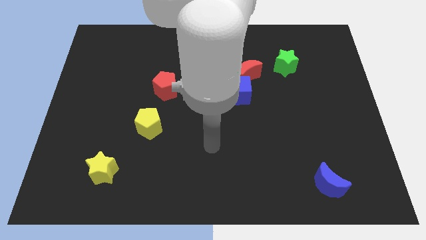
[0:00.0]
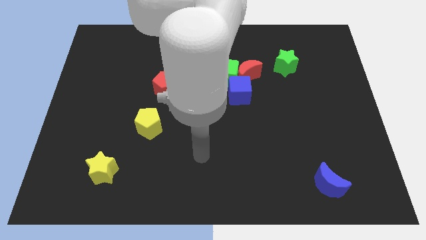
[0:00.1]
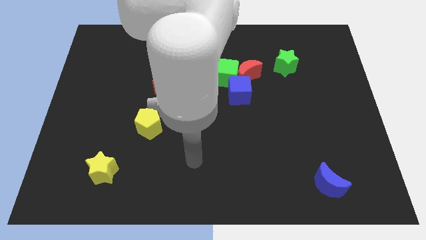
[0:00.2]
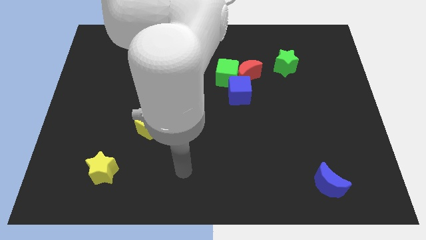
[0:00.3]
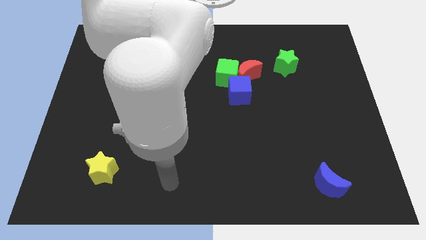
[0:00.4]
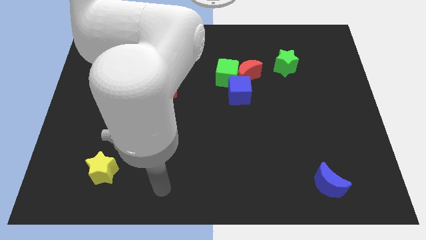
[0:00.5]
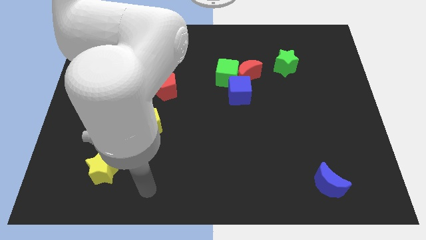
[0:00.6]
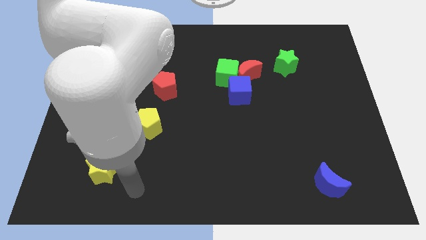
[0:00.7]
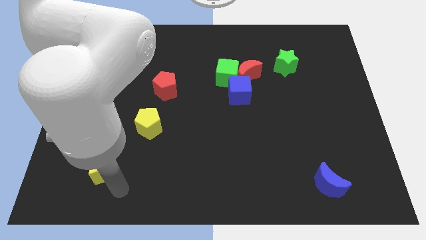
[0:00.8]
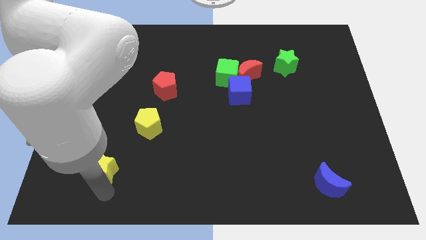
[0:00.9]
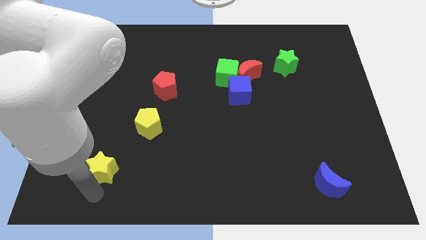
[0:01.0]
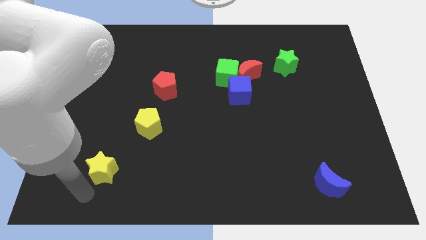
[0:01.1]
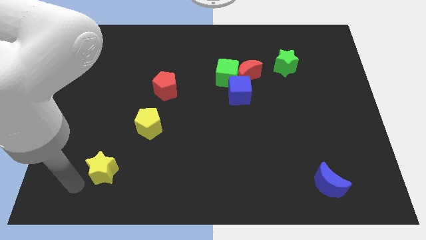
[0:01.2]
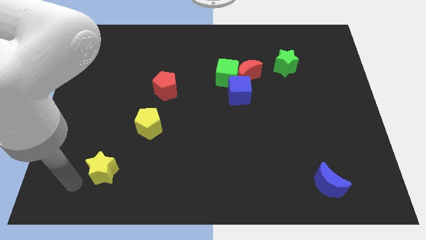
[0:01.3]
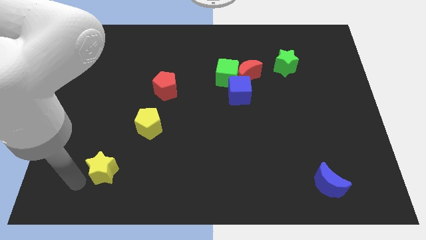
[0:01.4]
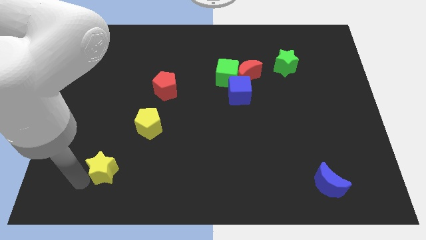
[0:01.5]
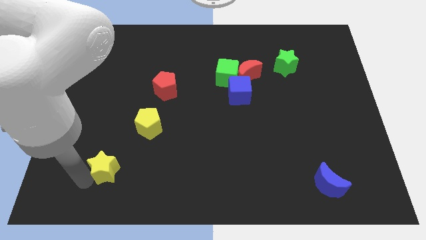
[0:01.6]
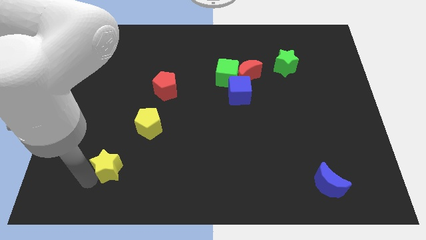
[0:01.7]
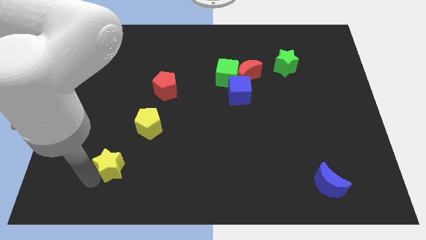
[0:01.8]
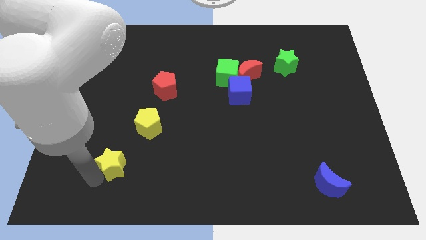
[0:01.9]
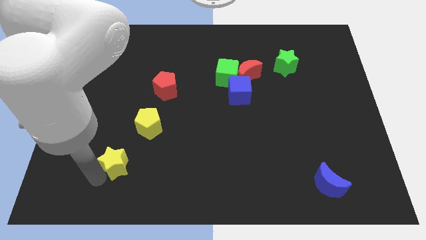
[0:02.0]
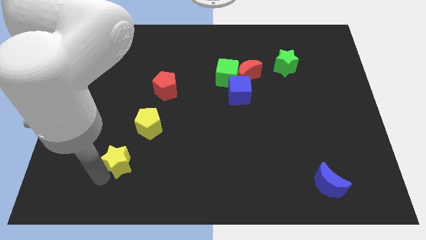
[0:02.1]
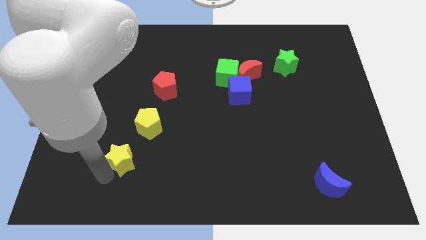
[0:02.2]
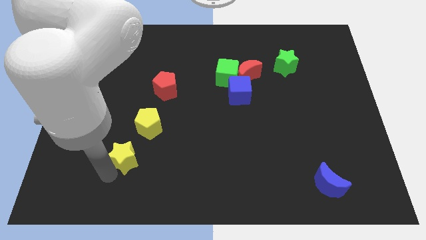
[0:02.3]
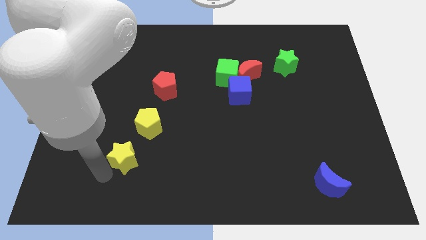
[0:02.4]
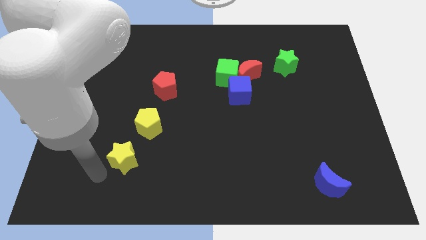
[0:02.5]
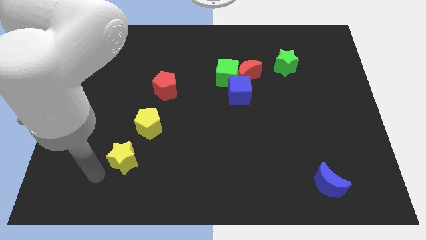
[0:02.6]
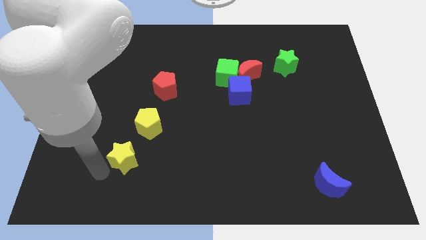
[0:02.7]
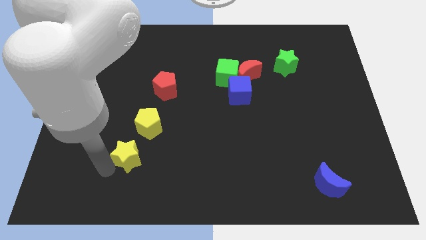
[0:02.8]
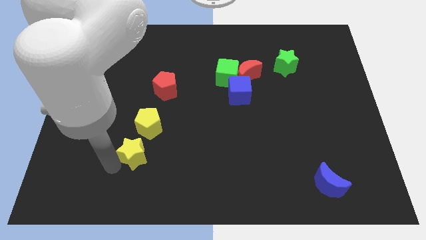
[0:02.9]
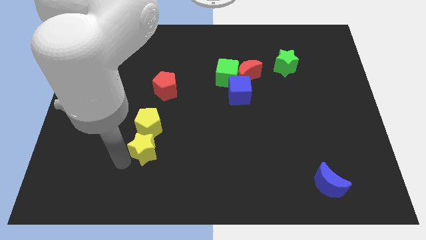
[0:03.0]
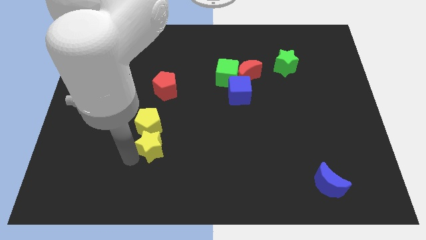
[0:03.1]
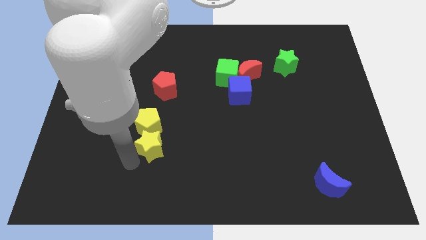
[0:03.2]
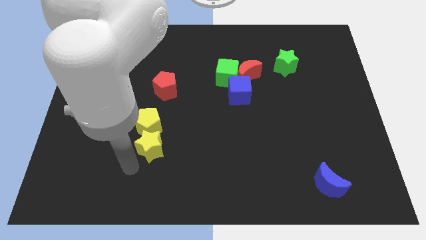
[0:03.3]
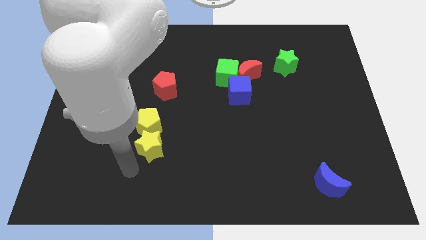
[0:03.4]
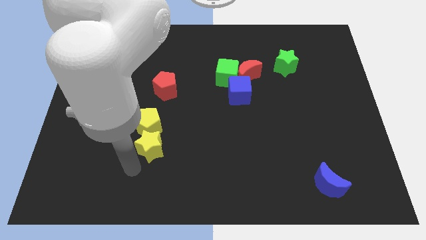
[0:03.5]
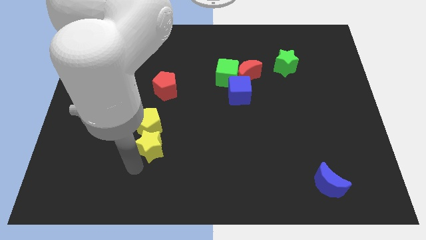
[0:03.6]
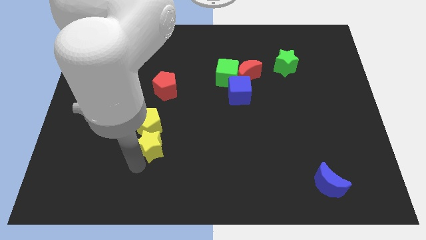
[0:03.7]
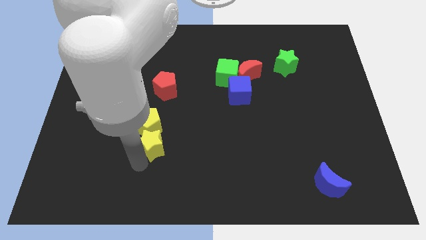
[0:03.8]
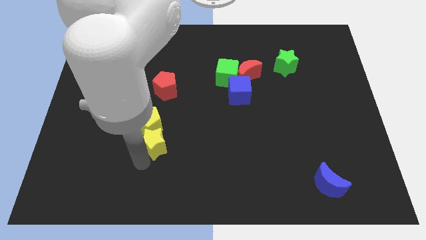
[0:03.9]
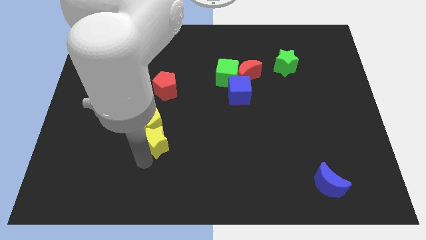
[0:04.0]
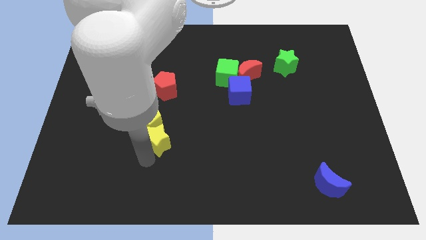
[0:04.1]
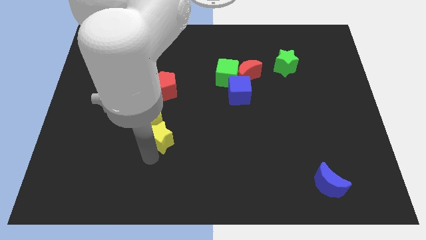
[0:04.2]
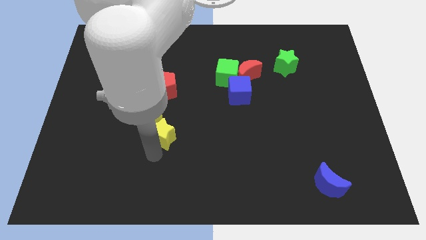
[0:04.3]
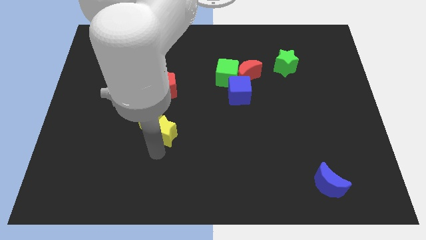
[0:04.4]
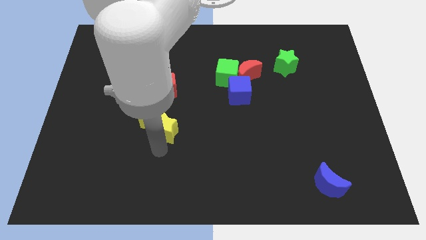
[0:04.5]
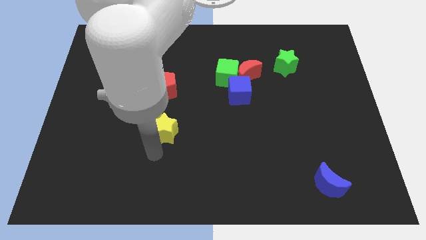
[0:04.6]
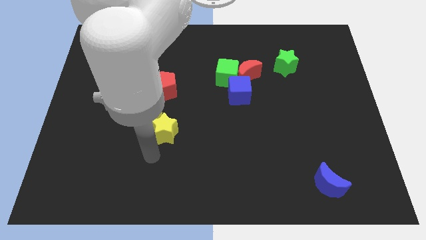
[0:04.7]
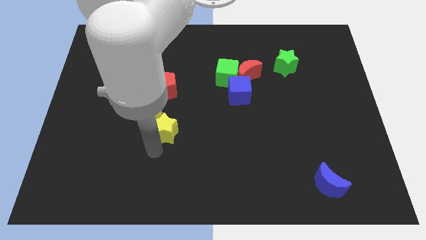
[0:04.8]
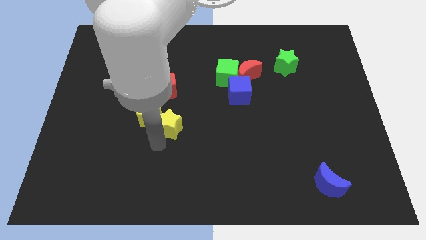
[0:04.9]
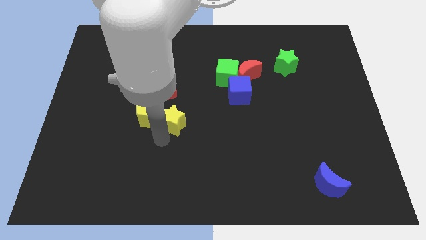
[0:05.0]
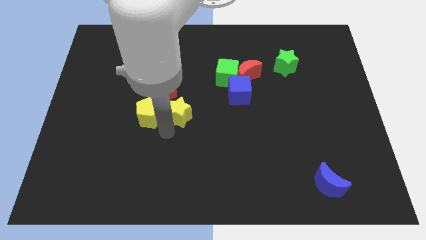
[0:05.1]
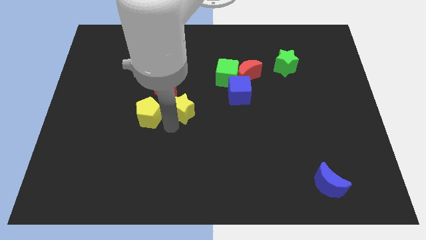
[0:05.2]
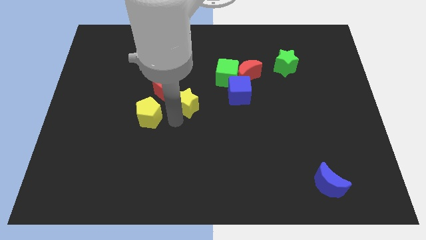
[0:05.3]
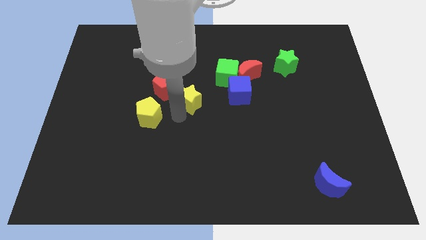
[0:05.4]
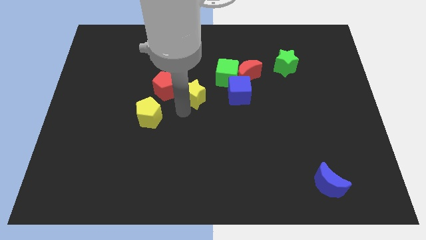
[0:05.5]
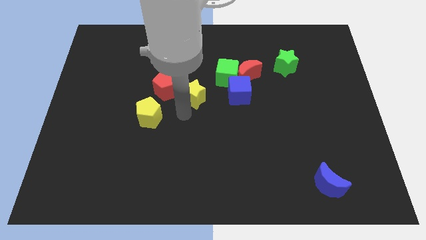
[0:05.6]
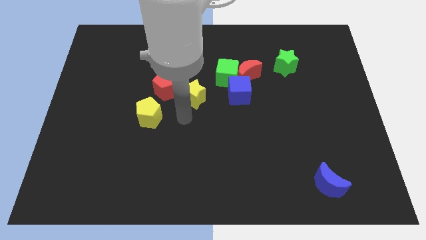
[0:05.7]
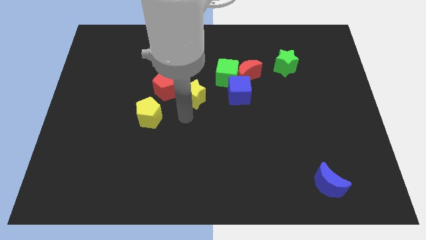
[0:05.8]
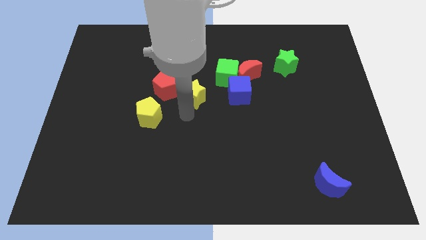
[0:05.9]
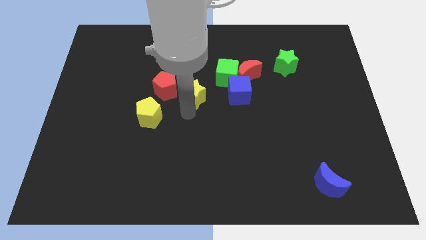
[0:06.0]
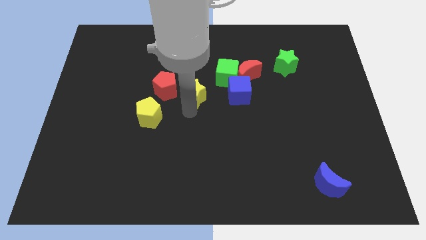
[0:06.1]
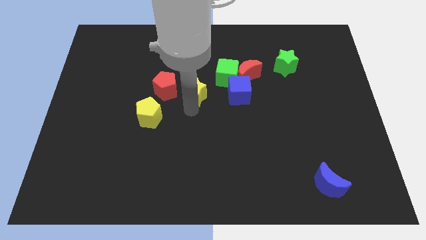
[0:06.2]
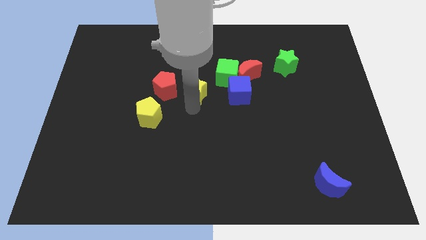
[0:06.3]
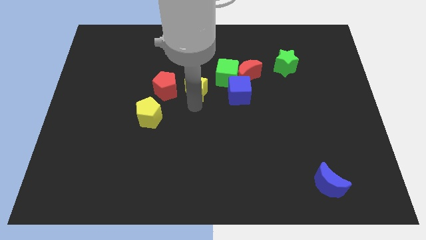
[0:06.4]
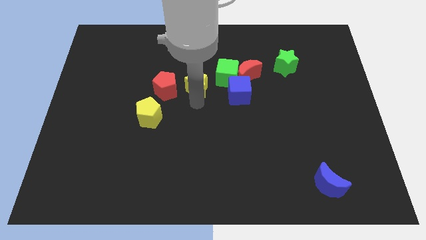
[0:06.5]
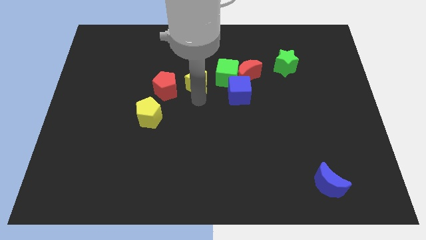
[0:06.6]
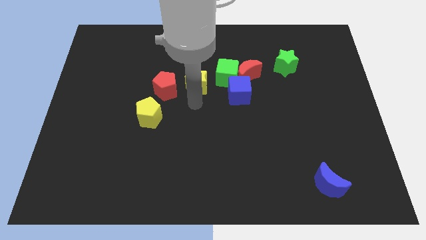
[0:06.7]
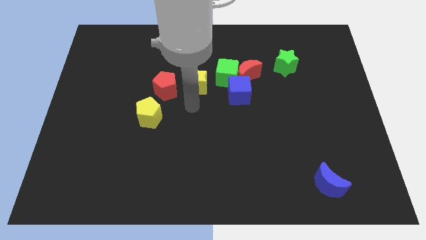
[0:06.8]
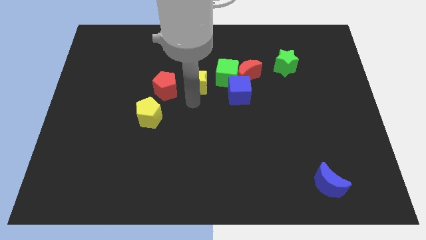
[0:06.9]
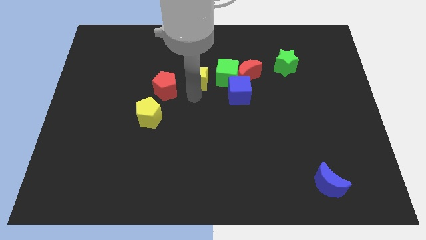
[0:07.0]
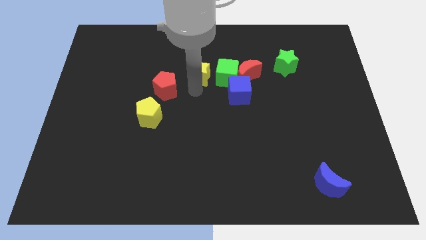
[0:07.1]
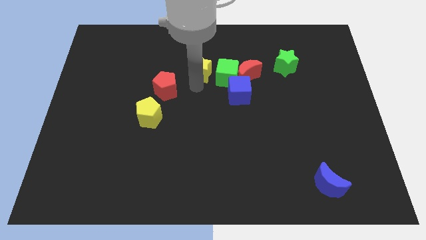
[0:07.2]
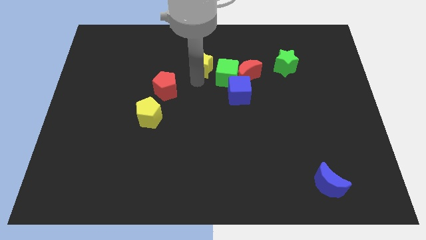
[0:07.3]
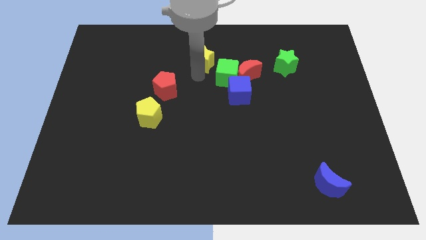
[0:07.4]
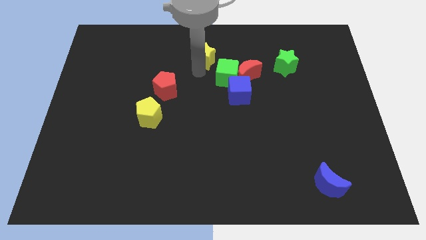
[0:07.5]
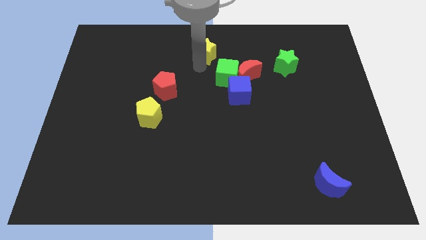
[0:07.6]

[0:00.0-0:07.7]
slide the yellow star to the top
